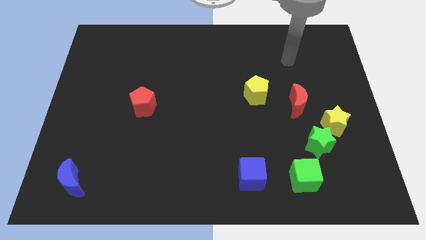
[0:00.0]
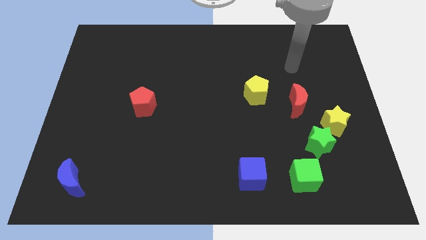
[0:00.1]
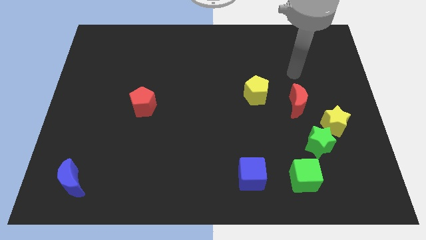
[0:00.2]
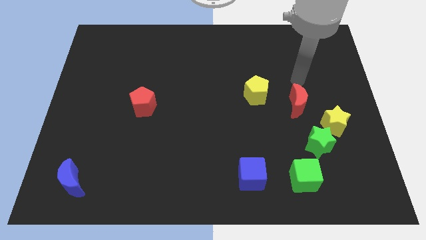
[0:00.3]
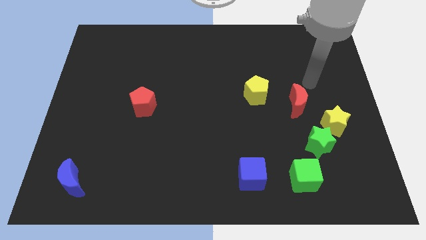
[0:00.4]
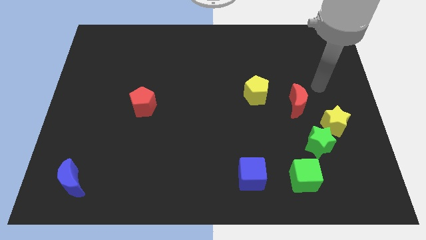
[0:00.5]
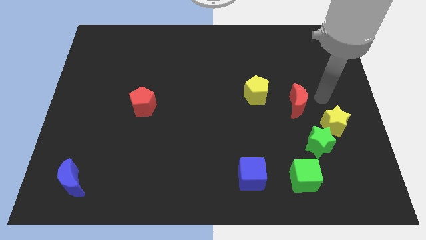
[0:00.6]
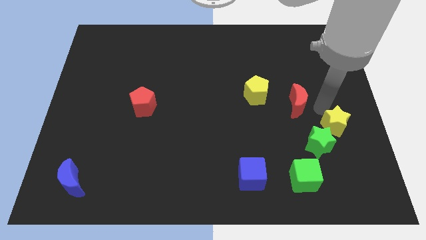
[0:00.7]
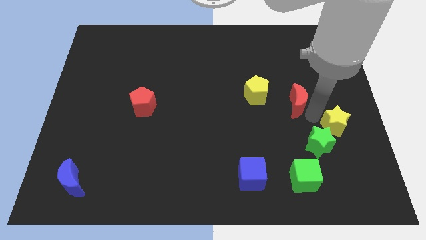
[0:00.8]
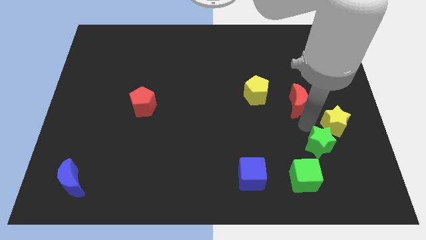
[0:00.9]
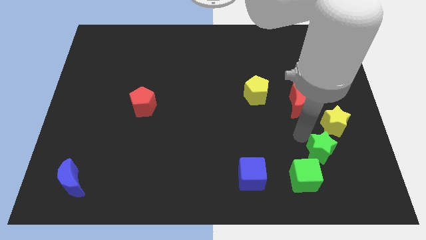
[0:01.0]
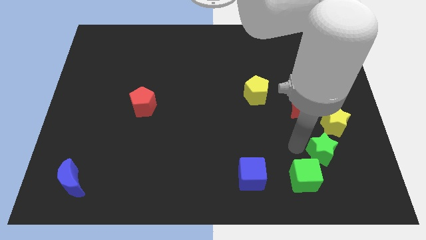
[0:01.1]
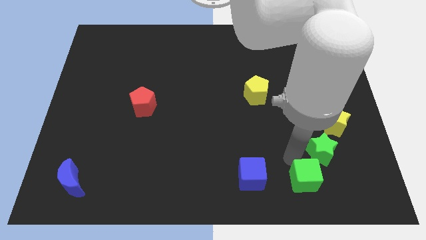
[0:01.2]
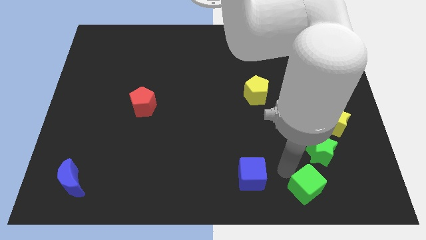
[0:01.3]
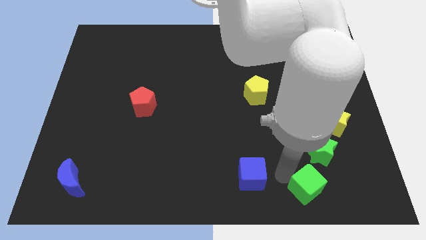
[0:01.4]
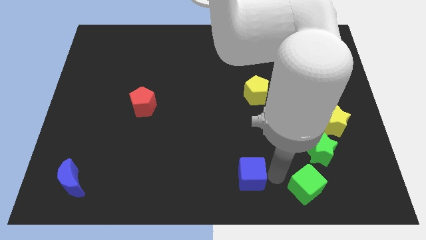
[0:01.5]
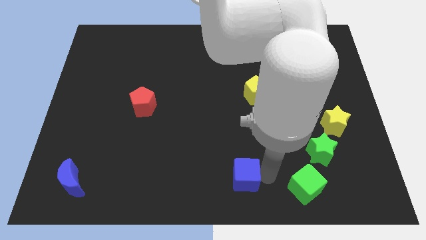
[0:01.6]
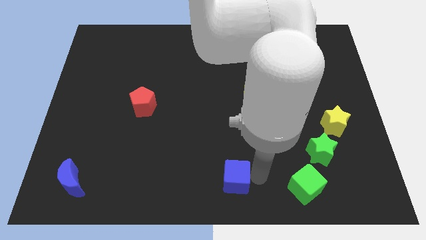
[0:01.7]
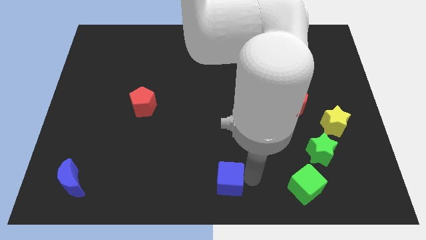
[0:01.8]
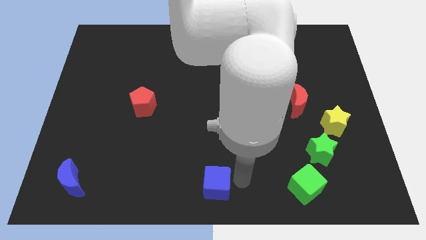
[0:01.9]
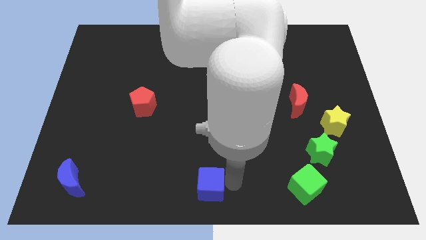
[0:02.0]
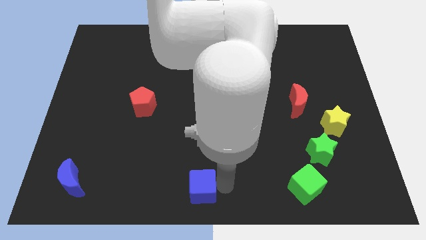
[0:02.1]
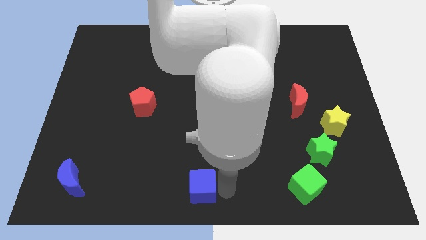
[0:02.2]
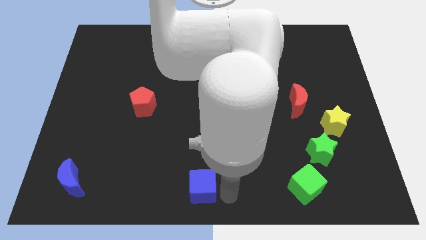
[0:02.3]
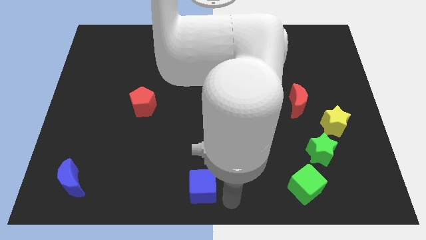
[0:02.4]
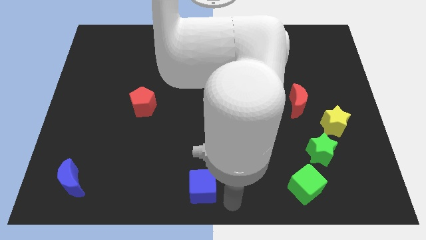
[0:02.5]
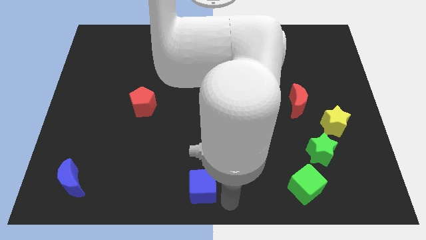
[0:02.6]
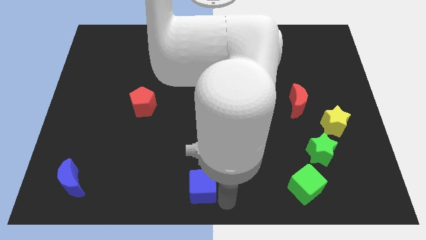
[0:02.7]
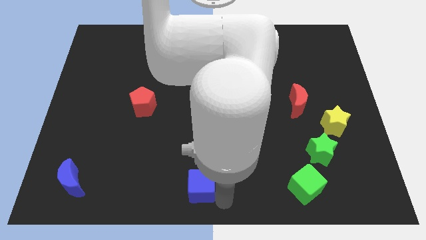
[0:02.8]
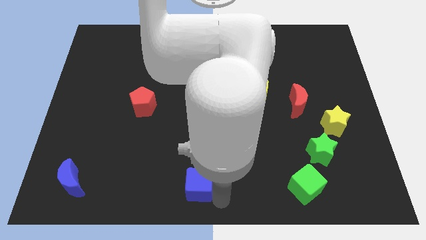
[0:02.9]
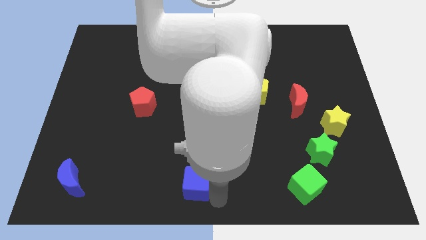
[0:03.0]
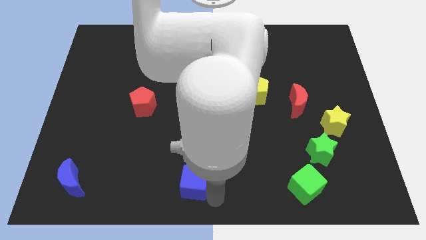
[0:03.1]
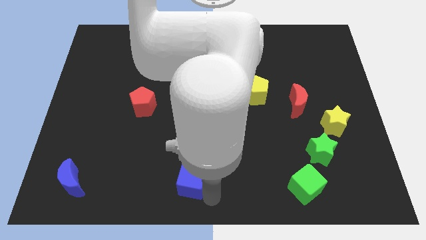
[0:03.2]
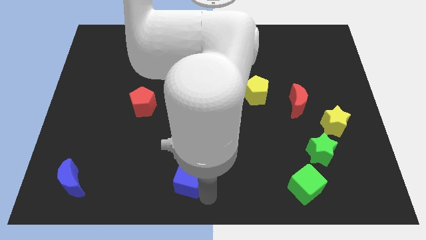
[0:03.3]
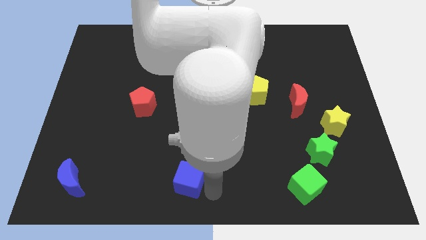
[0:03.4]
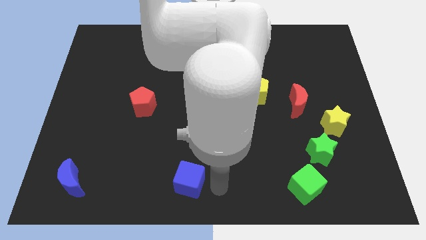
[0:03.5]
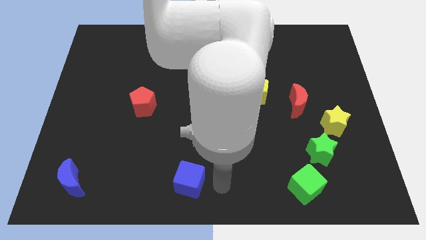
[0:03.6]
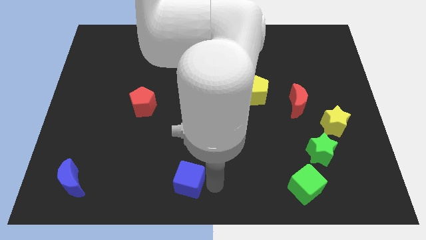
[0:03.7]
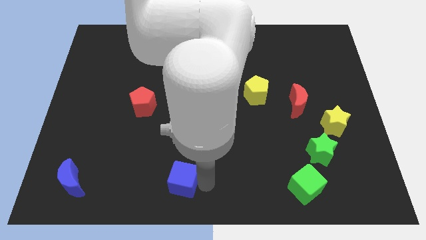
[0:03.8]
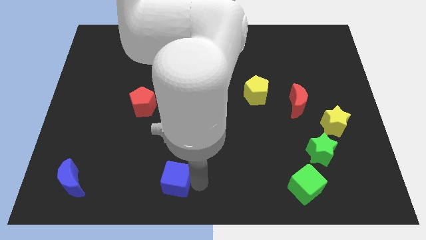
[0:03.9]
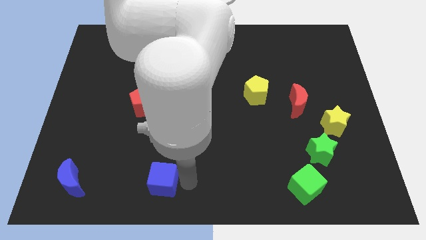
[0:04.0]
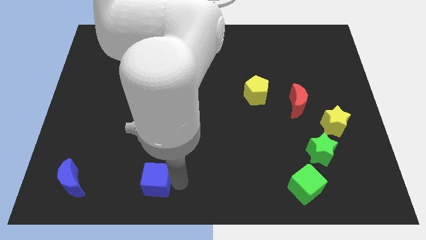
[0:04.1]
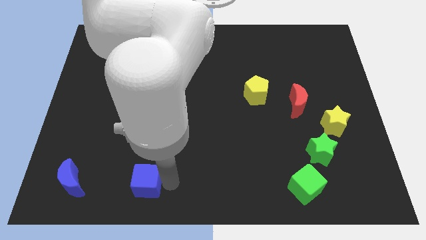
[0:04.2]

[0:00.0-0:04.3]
move the blue cube left

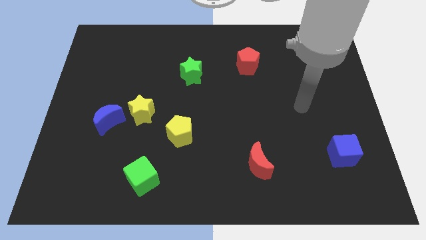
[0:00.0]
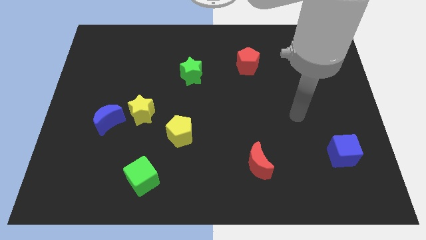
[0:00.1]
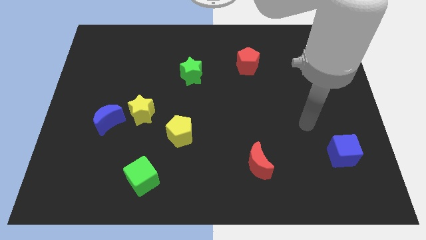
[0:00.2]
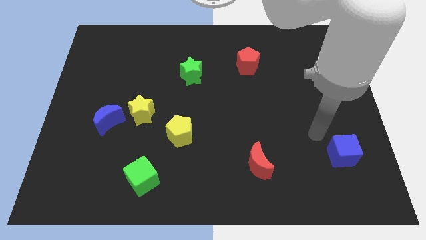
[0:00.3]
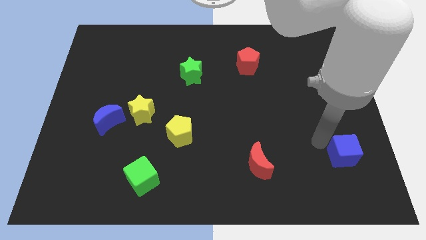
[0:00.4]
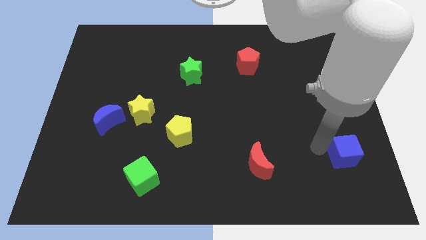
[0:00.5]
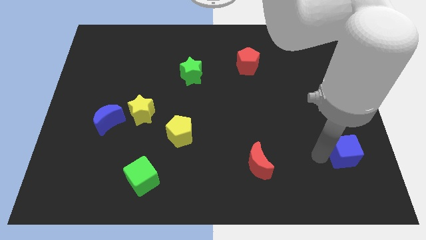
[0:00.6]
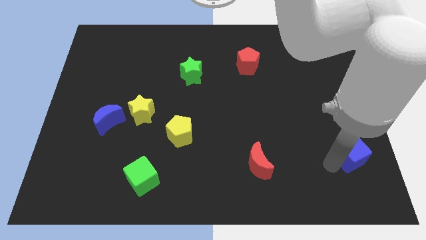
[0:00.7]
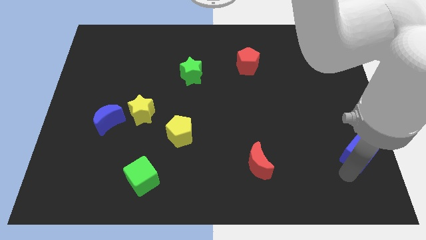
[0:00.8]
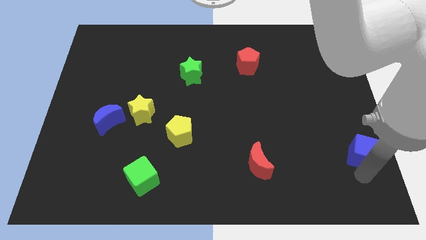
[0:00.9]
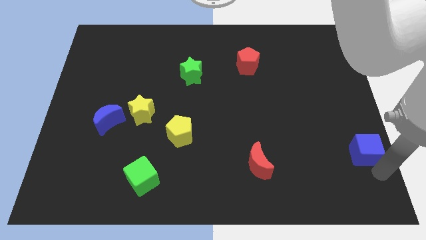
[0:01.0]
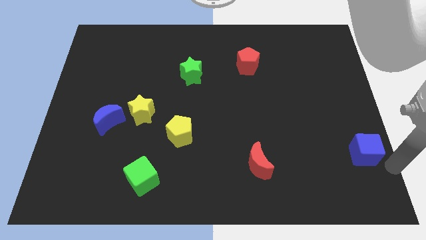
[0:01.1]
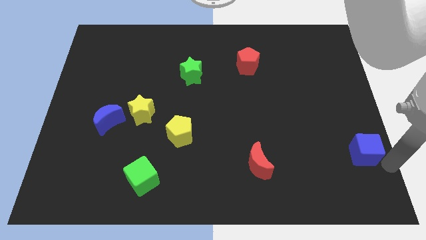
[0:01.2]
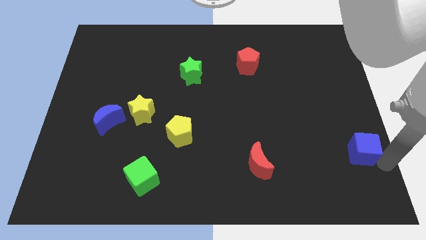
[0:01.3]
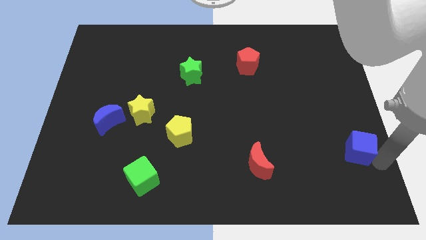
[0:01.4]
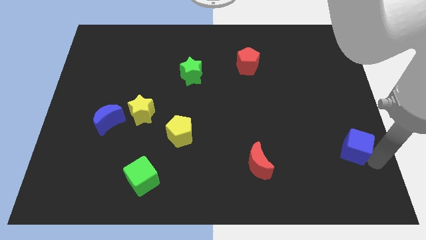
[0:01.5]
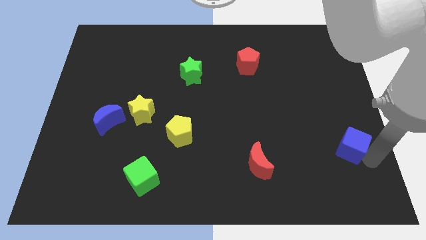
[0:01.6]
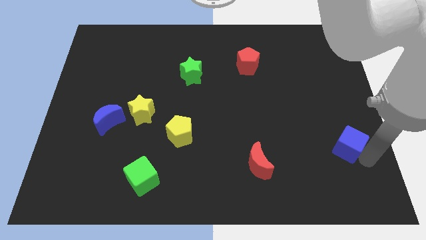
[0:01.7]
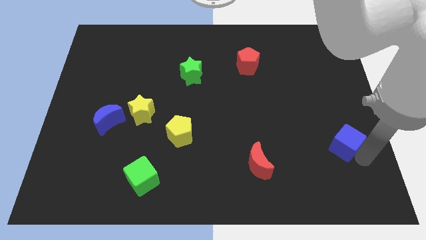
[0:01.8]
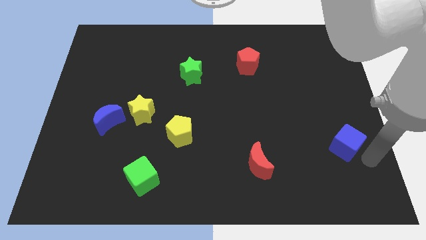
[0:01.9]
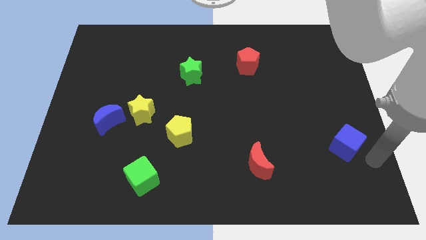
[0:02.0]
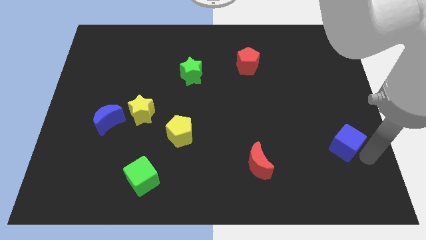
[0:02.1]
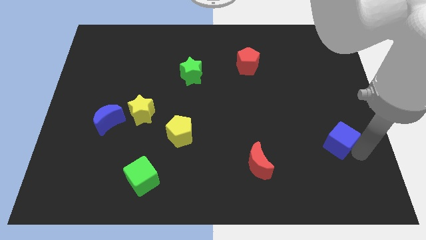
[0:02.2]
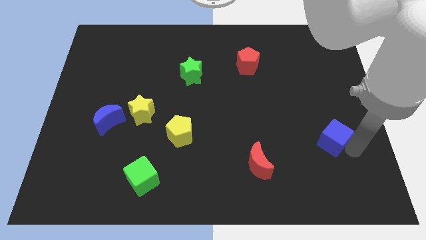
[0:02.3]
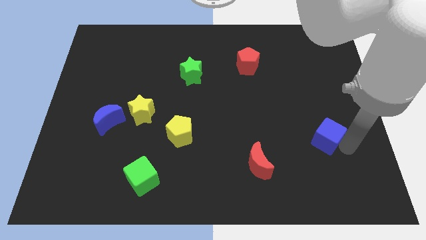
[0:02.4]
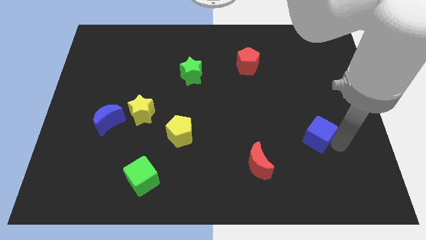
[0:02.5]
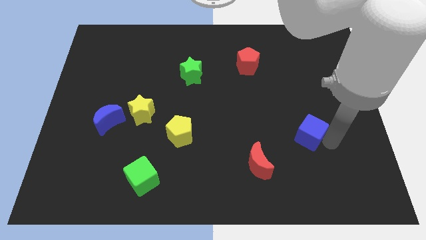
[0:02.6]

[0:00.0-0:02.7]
slightly slide the blue cube up and to the left diagonally

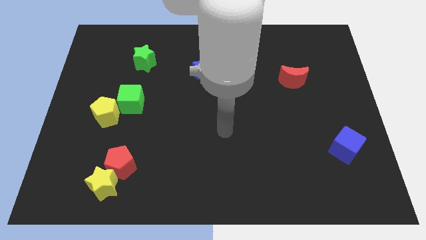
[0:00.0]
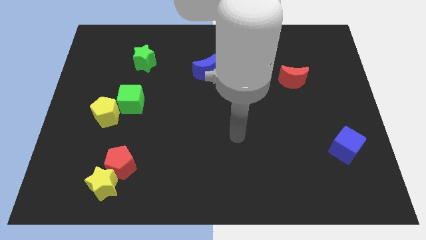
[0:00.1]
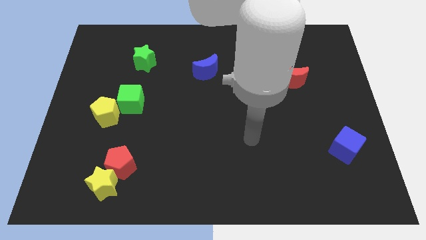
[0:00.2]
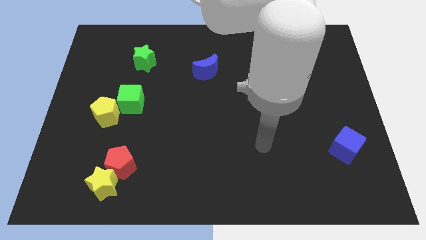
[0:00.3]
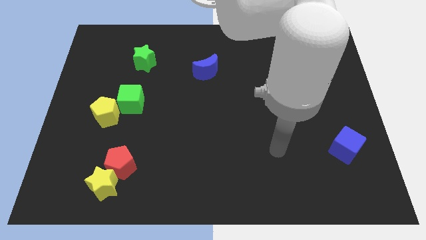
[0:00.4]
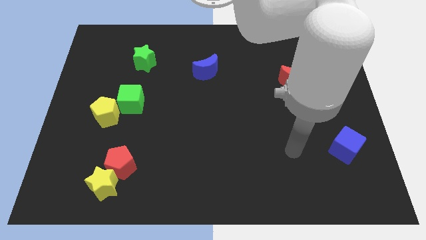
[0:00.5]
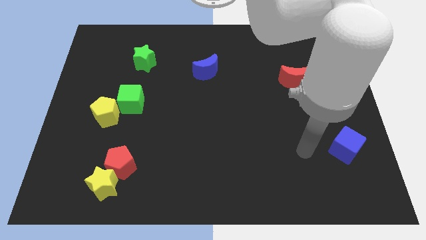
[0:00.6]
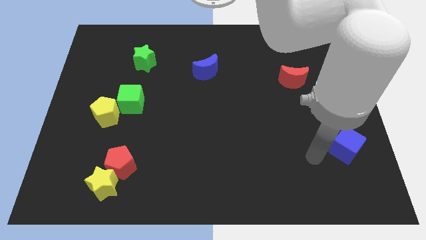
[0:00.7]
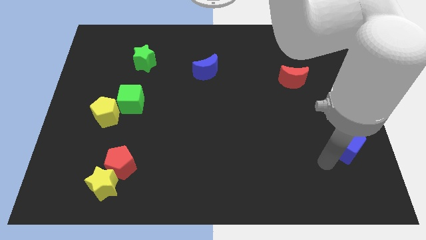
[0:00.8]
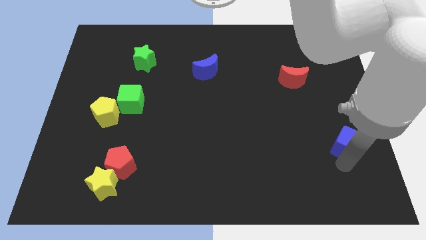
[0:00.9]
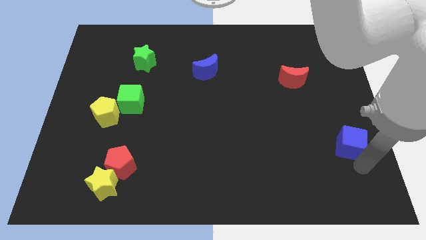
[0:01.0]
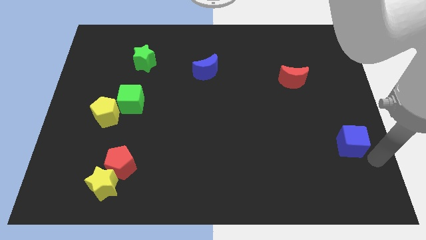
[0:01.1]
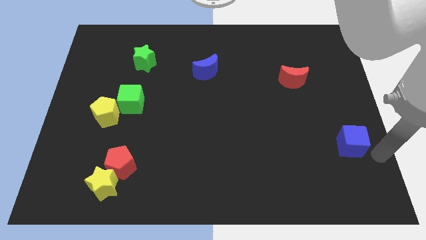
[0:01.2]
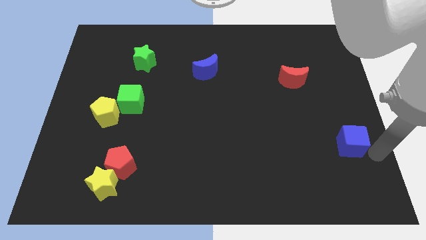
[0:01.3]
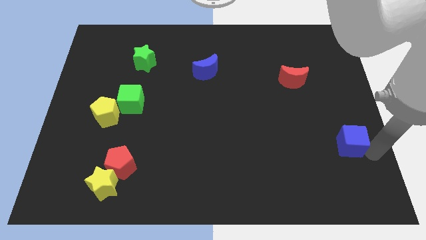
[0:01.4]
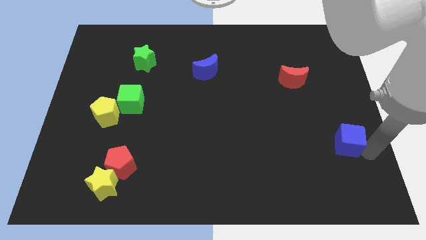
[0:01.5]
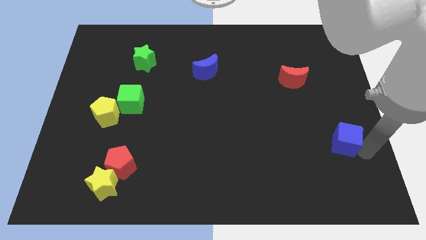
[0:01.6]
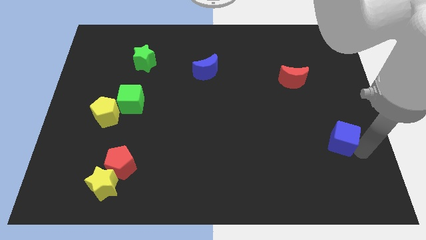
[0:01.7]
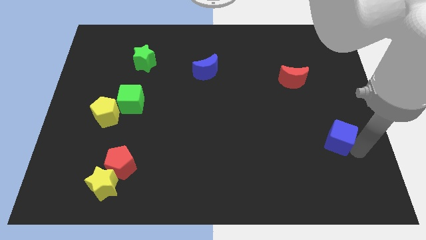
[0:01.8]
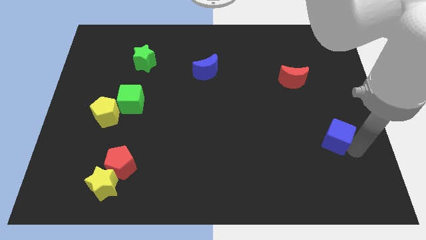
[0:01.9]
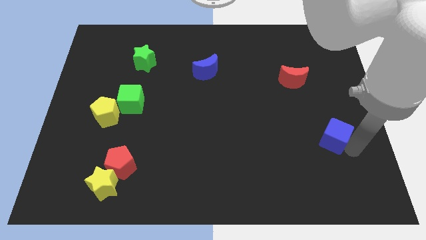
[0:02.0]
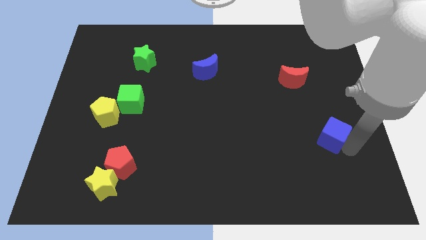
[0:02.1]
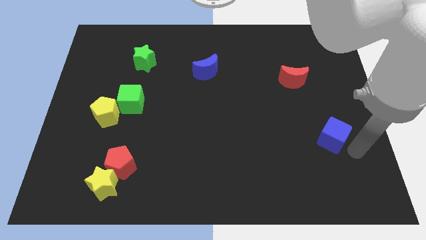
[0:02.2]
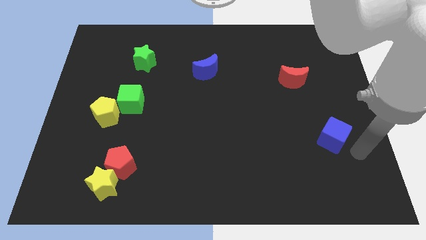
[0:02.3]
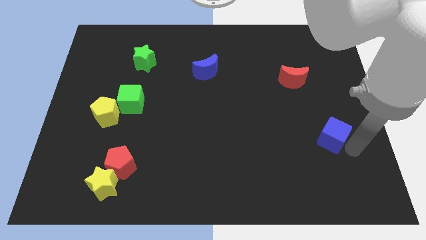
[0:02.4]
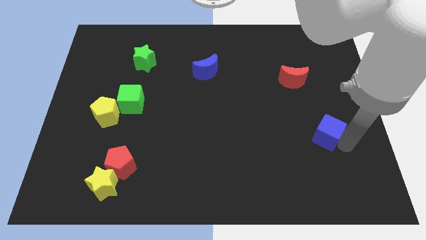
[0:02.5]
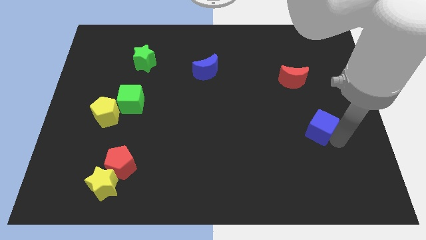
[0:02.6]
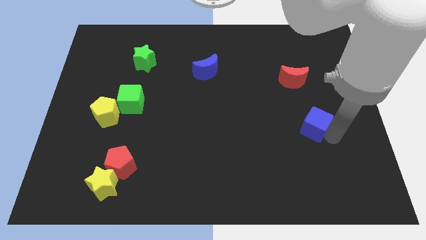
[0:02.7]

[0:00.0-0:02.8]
slightly push the blue cube upwards and to the left
